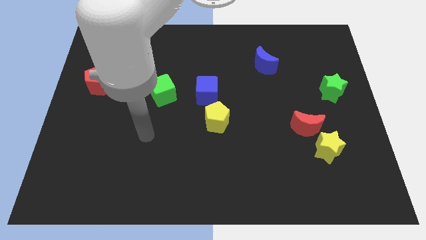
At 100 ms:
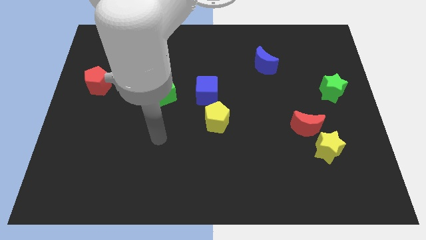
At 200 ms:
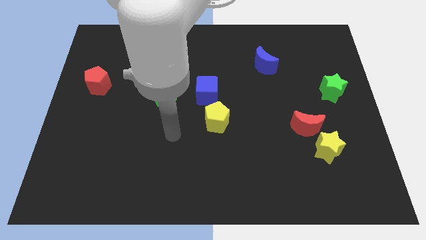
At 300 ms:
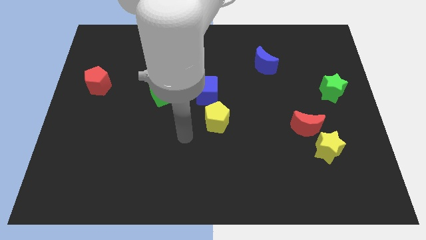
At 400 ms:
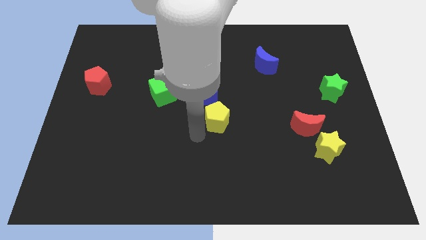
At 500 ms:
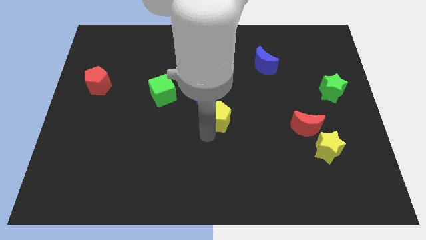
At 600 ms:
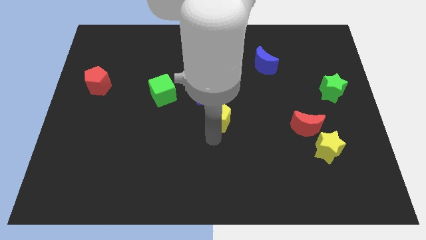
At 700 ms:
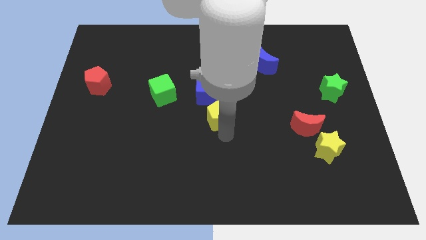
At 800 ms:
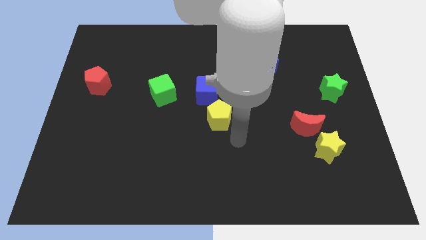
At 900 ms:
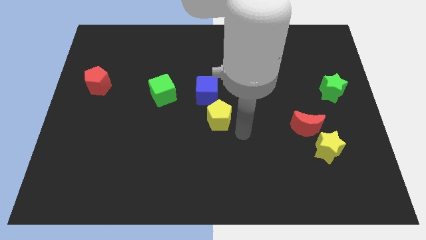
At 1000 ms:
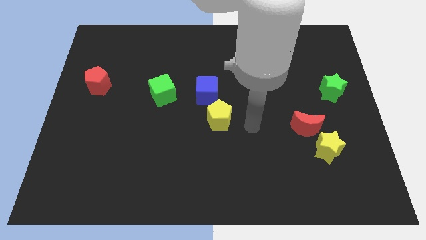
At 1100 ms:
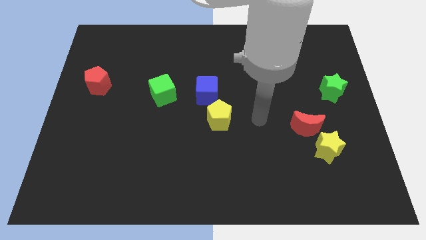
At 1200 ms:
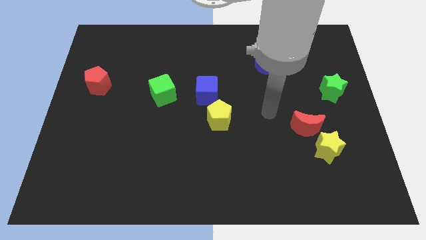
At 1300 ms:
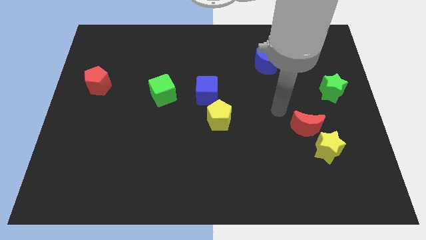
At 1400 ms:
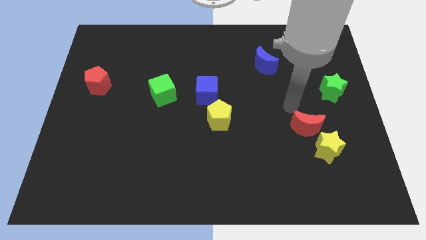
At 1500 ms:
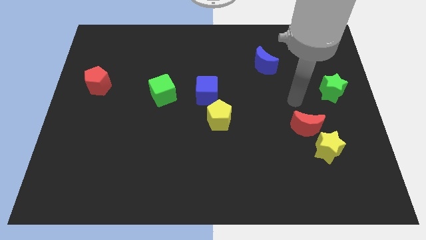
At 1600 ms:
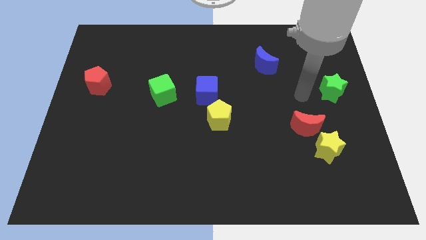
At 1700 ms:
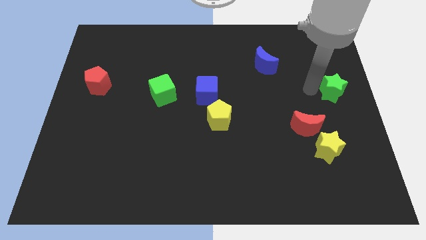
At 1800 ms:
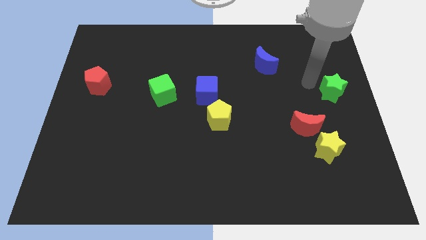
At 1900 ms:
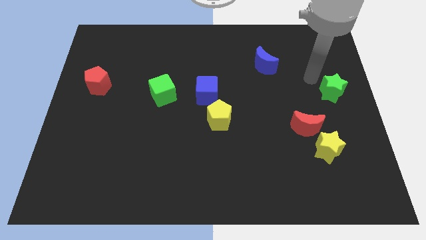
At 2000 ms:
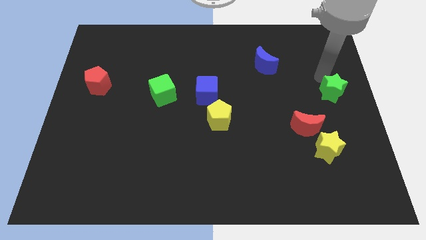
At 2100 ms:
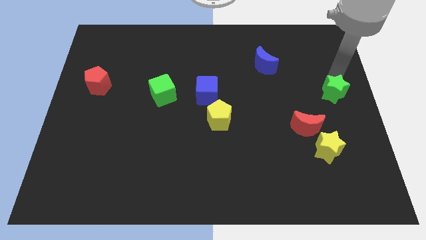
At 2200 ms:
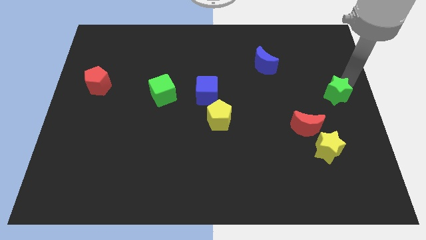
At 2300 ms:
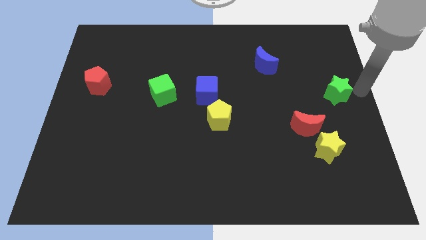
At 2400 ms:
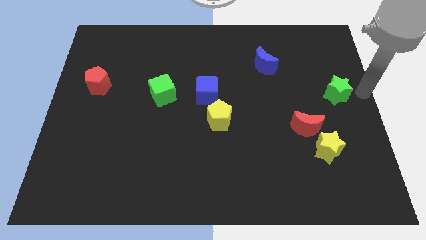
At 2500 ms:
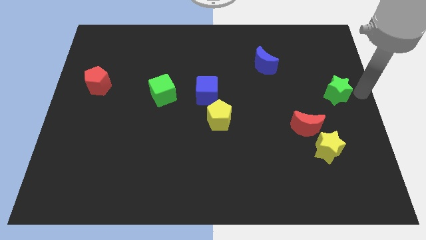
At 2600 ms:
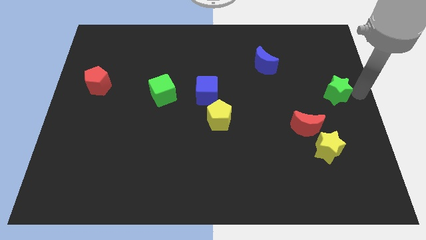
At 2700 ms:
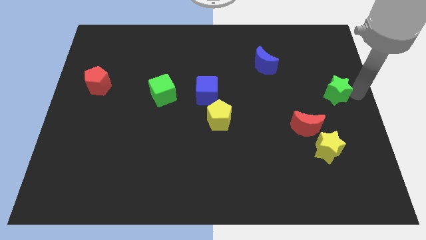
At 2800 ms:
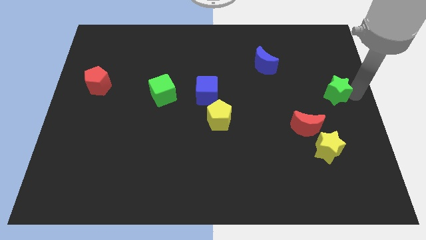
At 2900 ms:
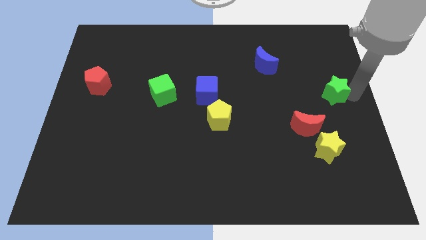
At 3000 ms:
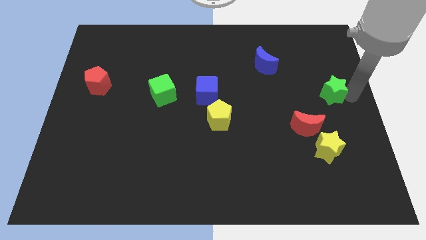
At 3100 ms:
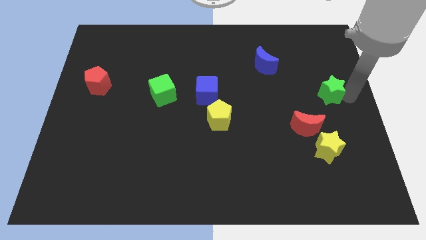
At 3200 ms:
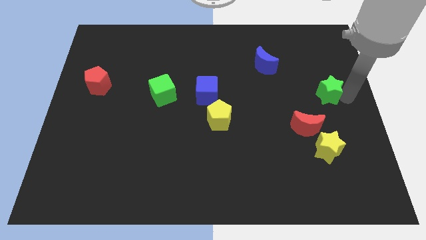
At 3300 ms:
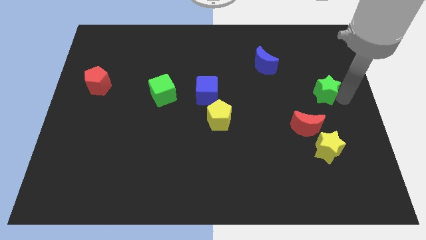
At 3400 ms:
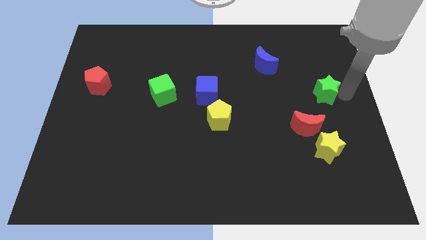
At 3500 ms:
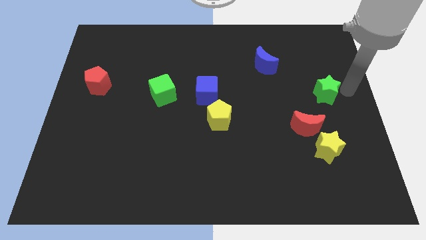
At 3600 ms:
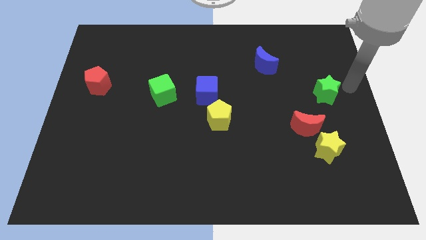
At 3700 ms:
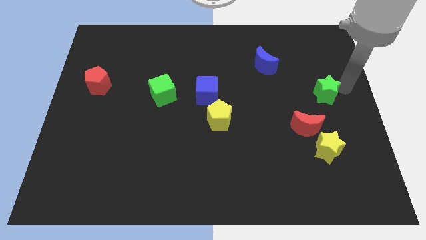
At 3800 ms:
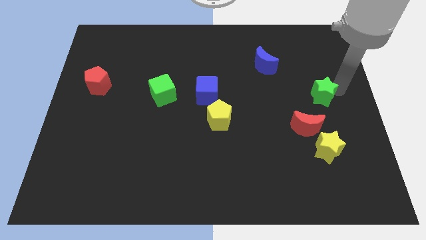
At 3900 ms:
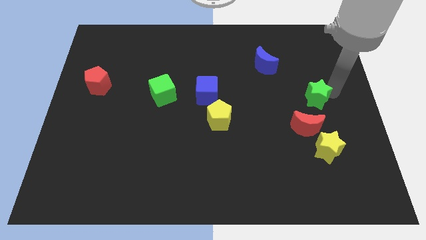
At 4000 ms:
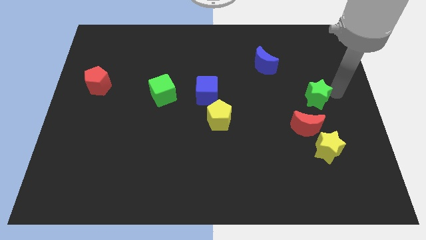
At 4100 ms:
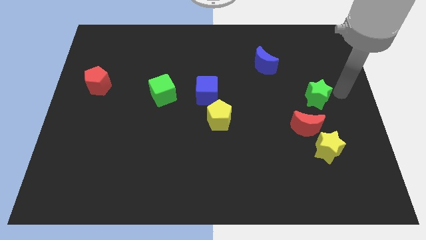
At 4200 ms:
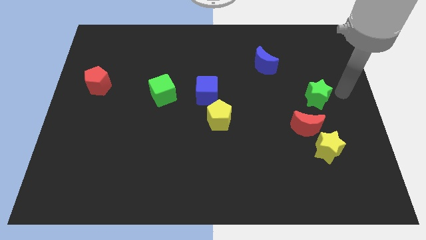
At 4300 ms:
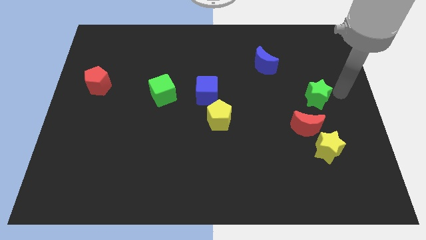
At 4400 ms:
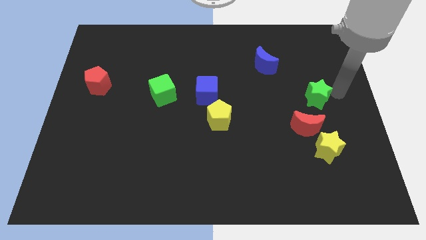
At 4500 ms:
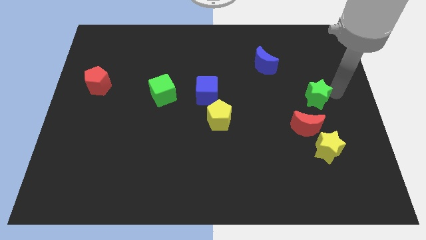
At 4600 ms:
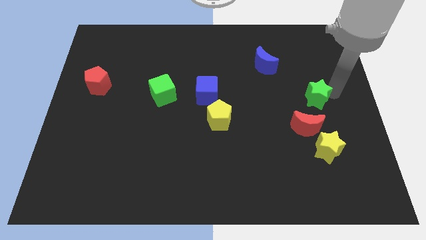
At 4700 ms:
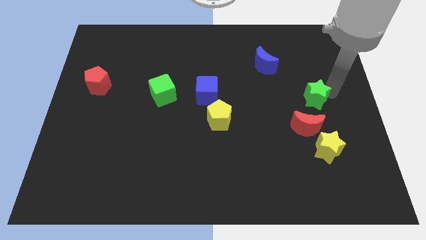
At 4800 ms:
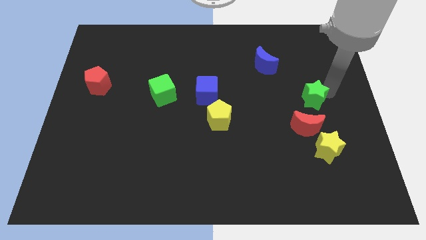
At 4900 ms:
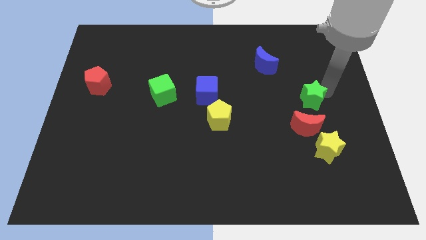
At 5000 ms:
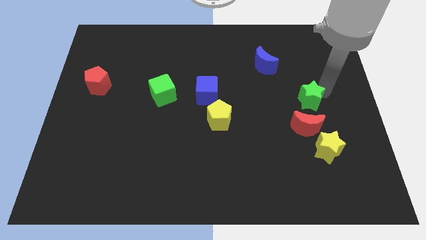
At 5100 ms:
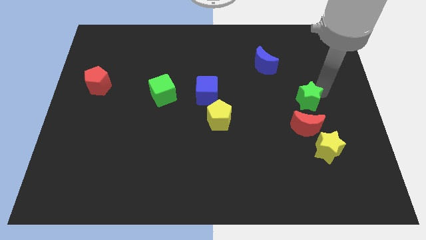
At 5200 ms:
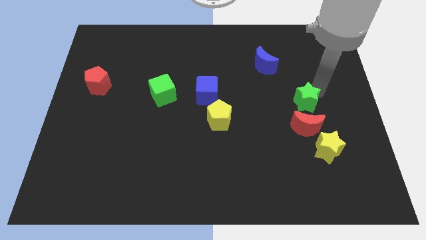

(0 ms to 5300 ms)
slide the green star diagonally downwards and to the left a little bit

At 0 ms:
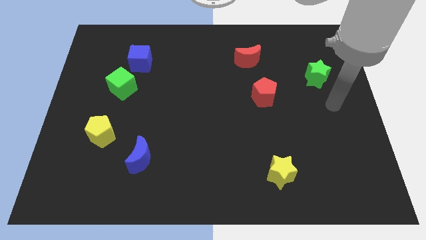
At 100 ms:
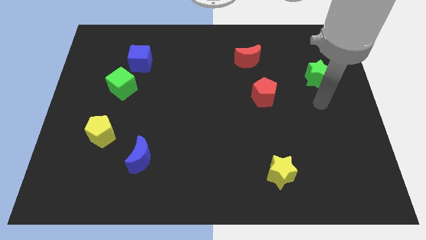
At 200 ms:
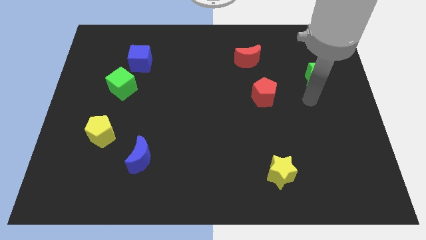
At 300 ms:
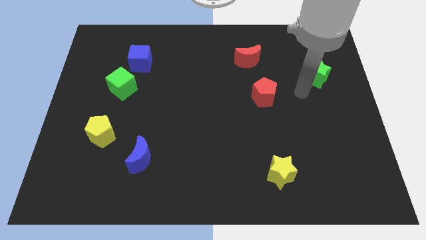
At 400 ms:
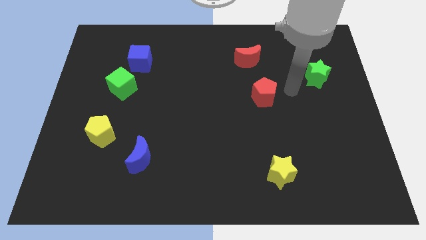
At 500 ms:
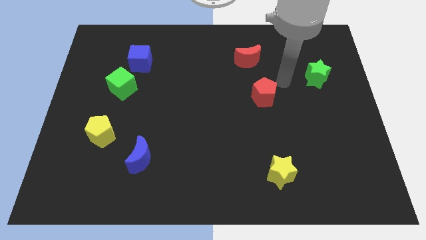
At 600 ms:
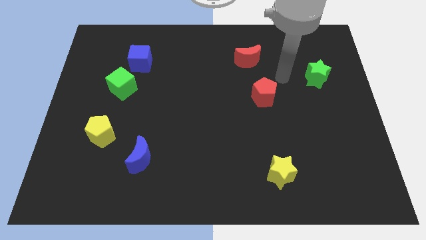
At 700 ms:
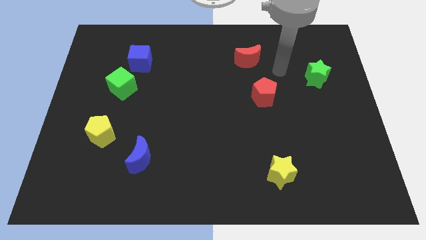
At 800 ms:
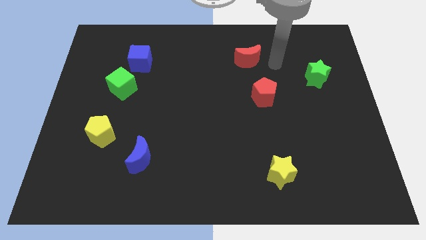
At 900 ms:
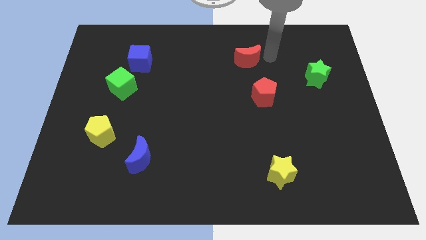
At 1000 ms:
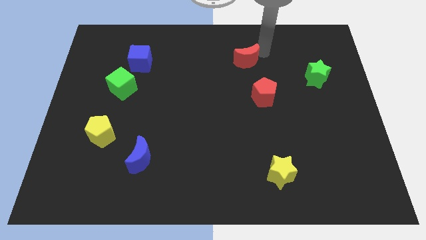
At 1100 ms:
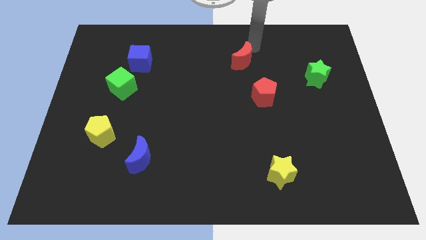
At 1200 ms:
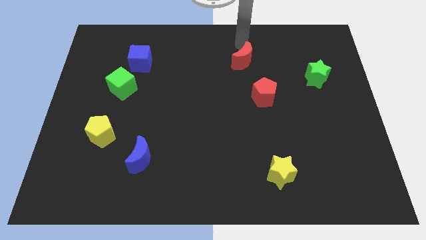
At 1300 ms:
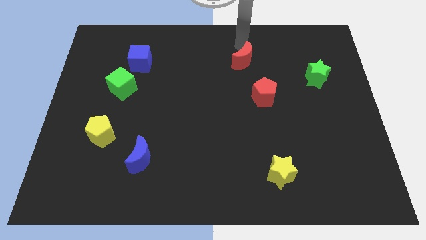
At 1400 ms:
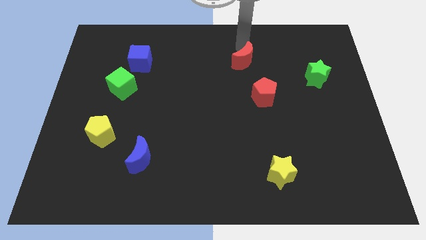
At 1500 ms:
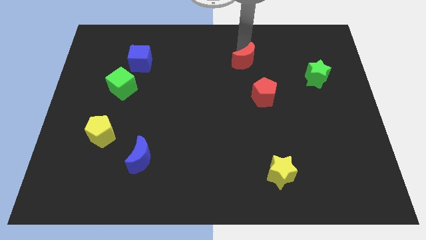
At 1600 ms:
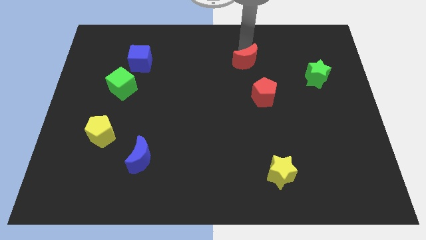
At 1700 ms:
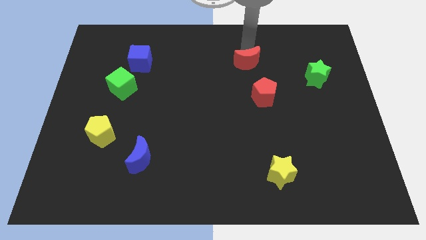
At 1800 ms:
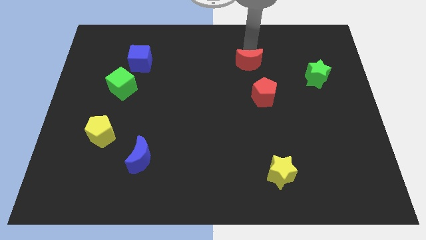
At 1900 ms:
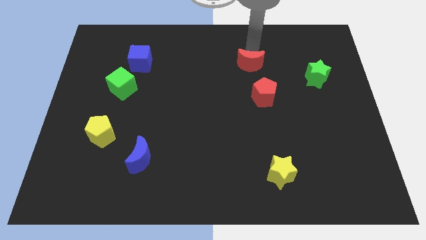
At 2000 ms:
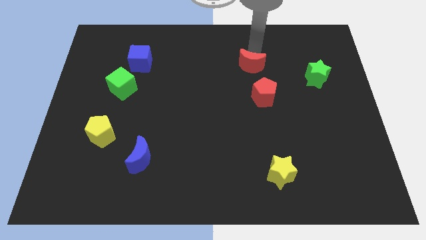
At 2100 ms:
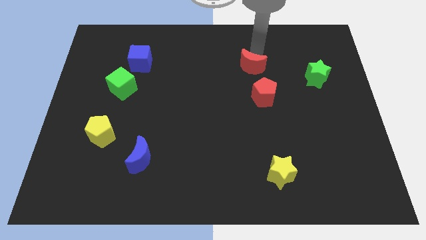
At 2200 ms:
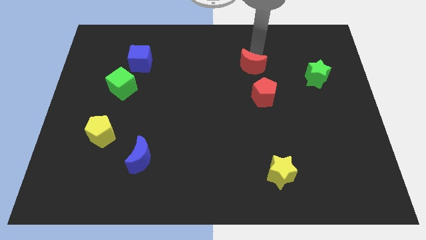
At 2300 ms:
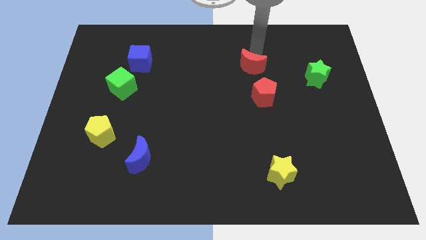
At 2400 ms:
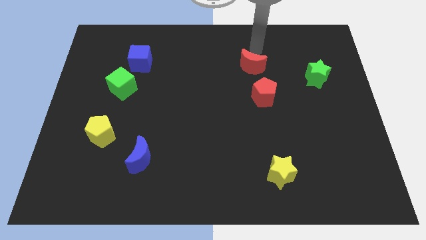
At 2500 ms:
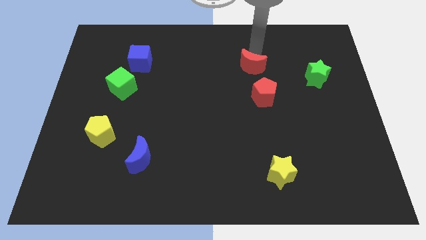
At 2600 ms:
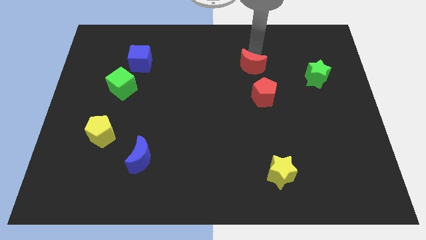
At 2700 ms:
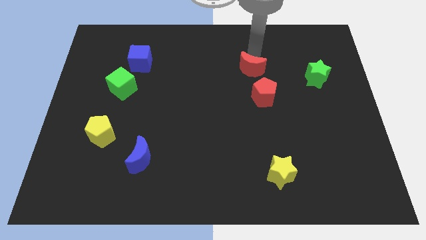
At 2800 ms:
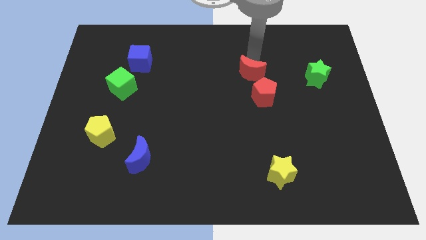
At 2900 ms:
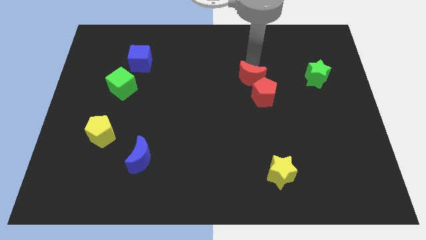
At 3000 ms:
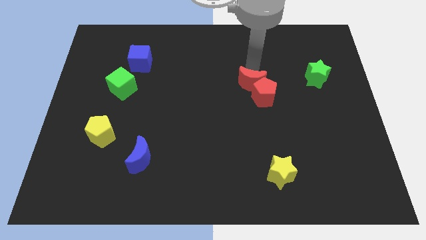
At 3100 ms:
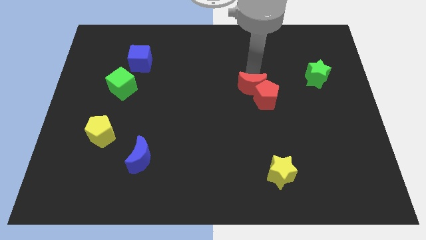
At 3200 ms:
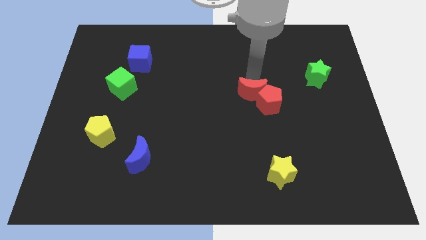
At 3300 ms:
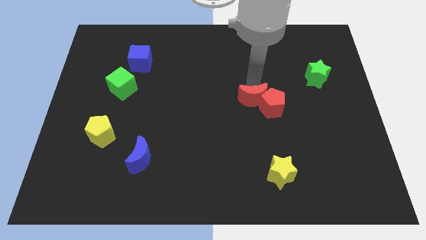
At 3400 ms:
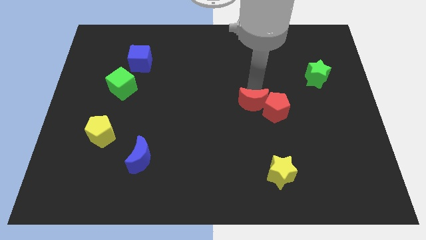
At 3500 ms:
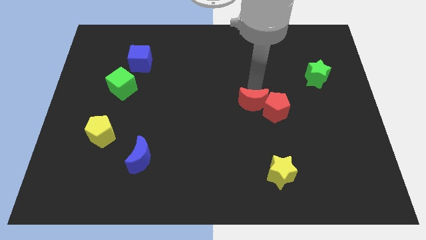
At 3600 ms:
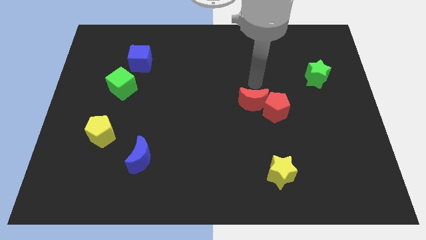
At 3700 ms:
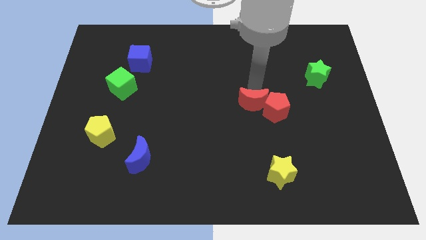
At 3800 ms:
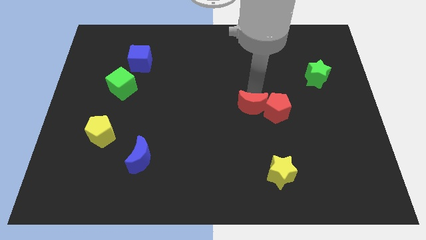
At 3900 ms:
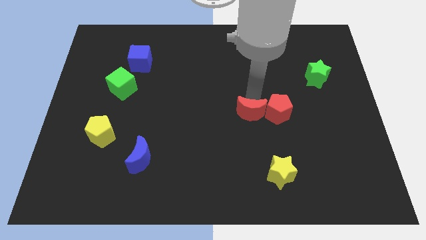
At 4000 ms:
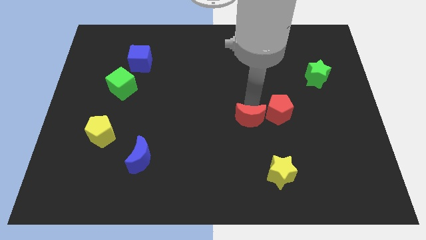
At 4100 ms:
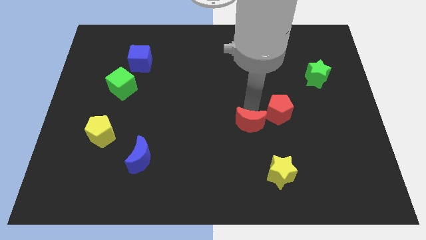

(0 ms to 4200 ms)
push the red moon downwards
